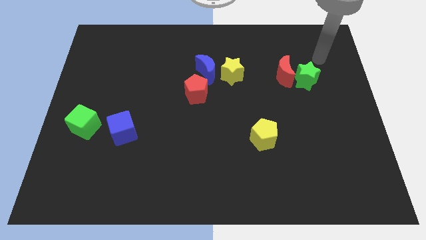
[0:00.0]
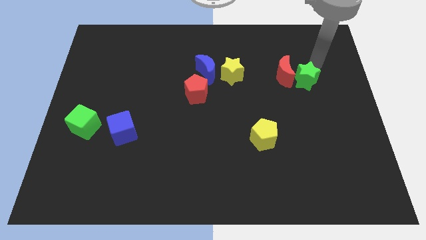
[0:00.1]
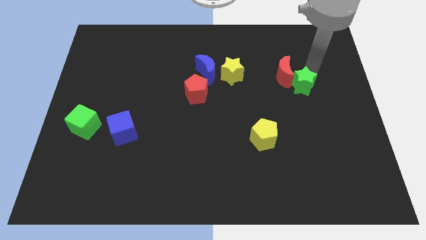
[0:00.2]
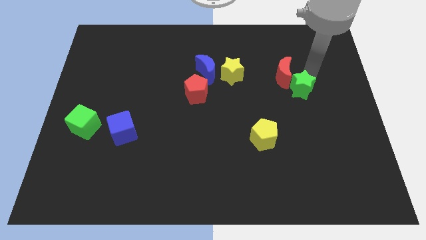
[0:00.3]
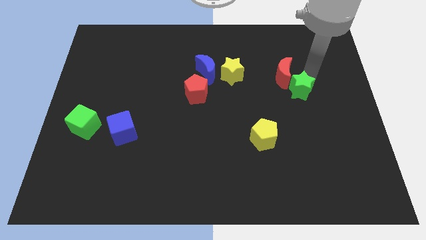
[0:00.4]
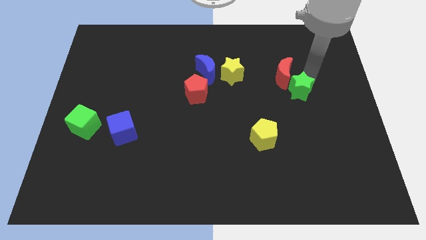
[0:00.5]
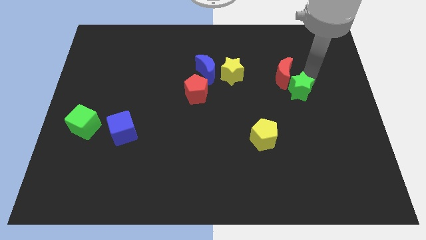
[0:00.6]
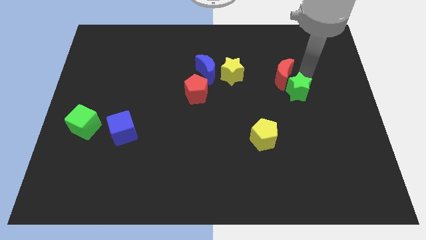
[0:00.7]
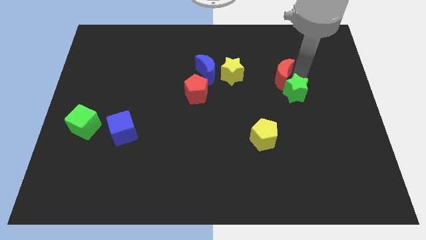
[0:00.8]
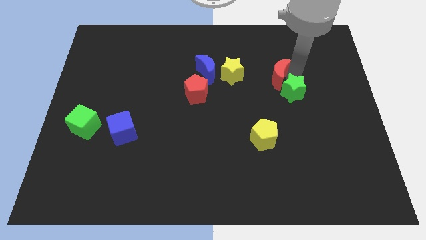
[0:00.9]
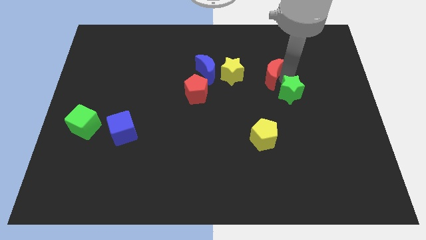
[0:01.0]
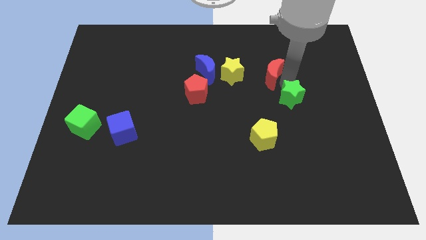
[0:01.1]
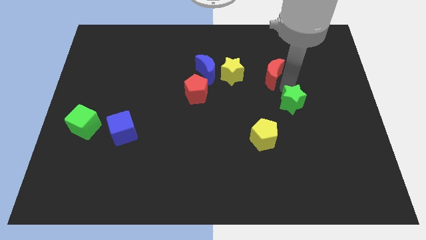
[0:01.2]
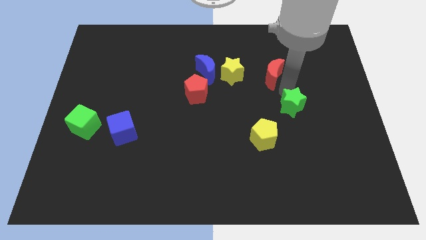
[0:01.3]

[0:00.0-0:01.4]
pull the red moon apart from the green star

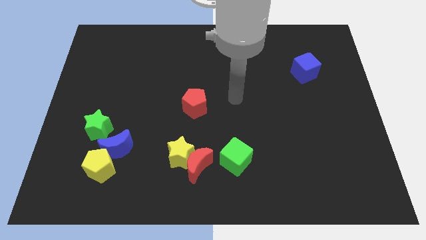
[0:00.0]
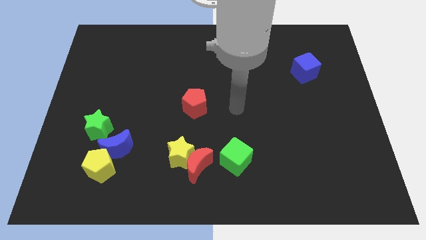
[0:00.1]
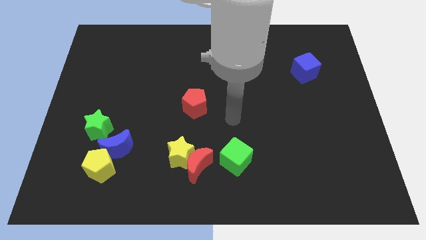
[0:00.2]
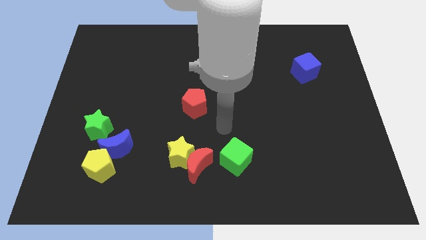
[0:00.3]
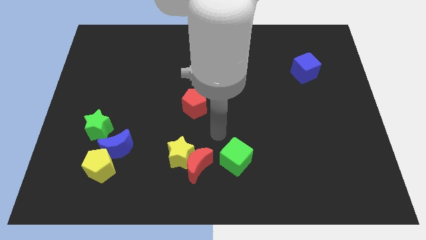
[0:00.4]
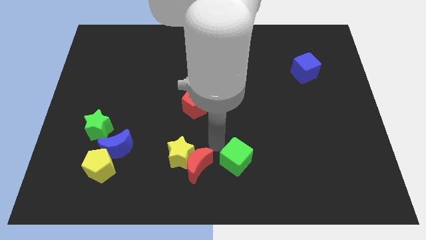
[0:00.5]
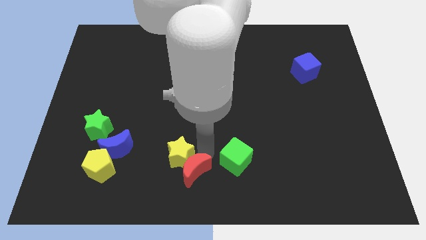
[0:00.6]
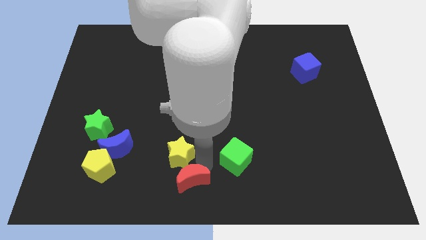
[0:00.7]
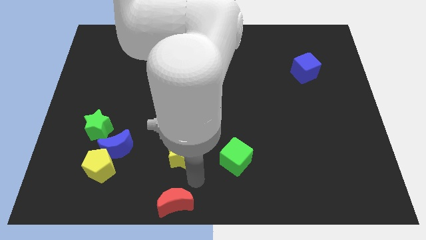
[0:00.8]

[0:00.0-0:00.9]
separate the yellow star from the red moon

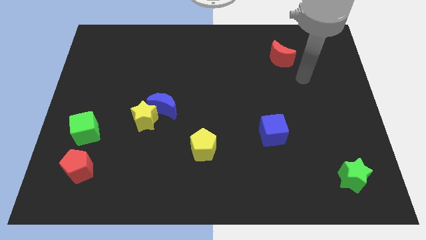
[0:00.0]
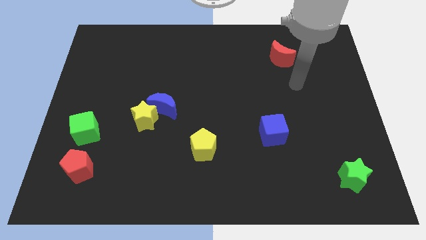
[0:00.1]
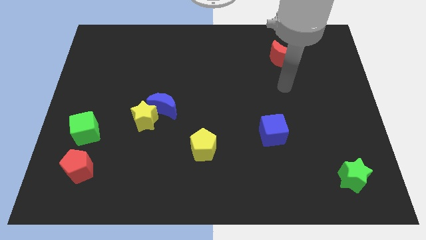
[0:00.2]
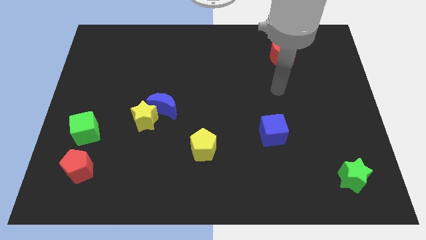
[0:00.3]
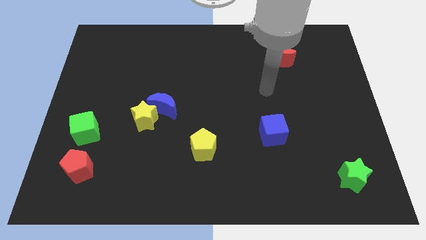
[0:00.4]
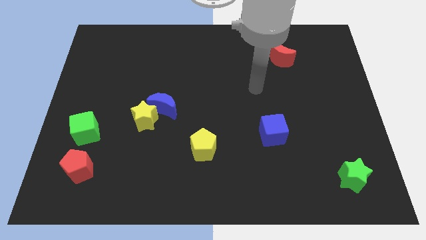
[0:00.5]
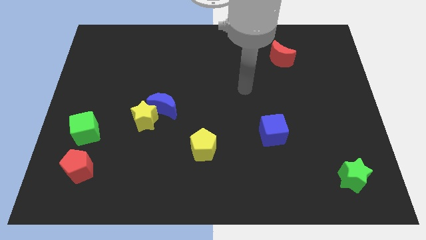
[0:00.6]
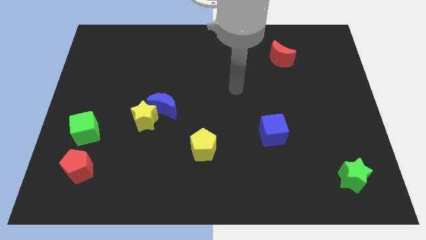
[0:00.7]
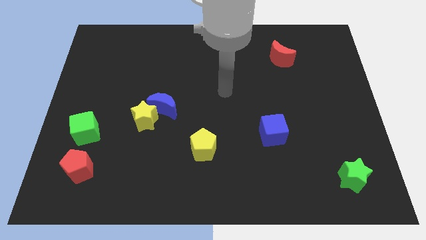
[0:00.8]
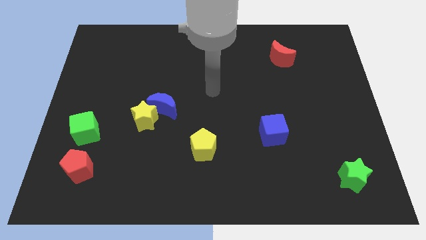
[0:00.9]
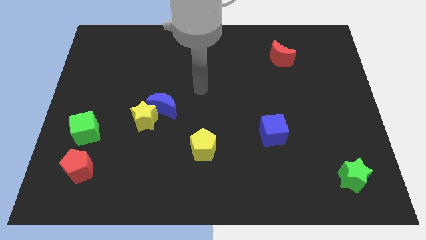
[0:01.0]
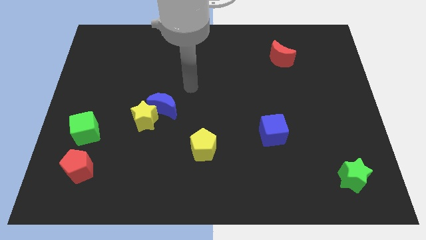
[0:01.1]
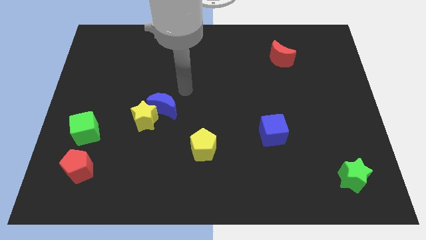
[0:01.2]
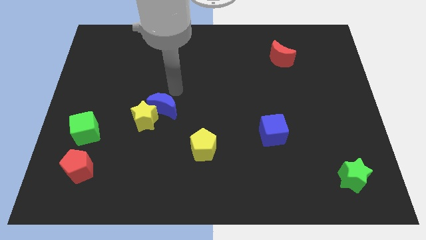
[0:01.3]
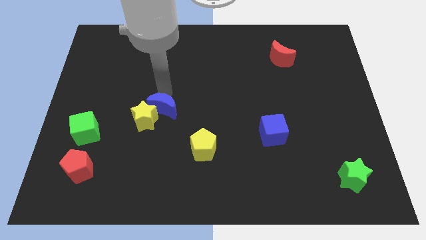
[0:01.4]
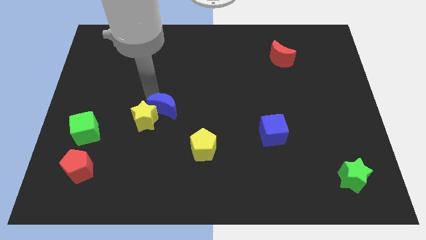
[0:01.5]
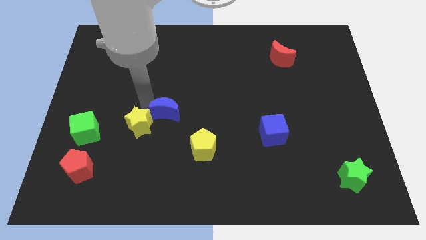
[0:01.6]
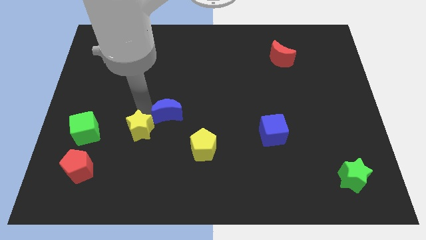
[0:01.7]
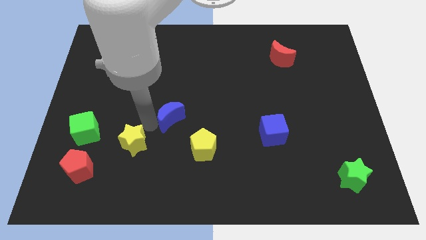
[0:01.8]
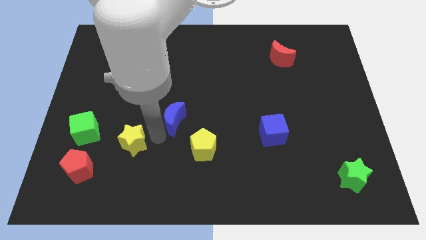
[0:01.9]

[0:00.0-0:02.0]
move the blue moon away from the yellow star

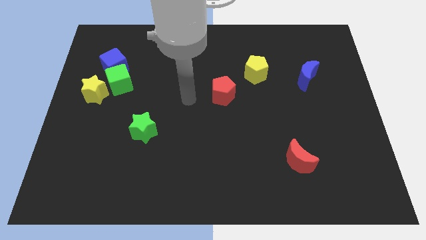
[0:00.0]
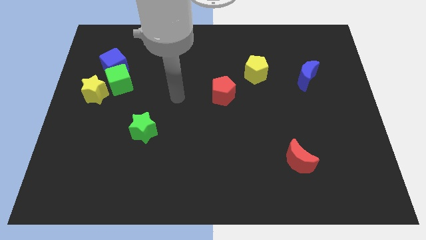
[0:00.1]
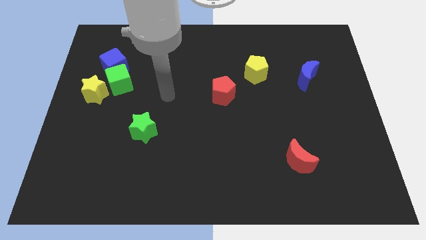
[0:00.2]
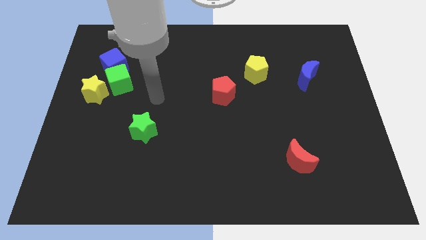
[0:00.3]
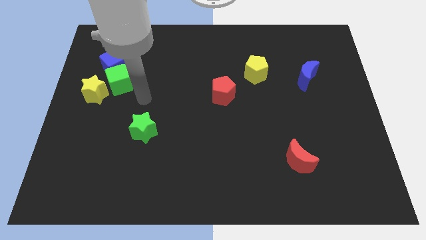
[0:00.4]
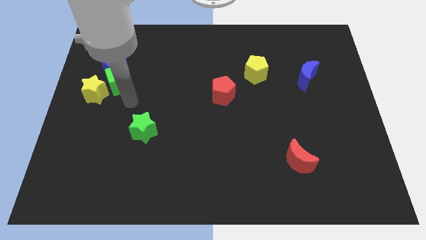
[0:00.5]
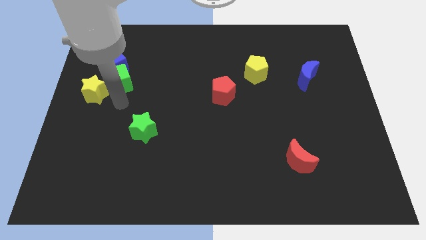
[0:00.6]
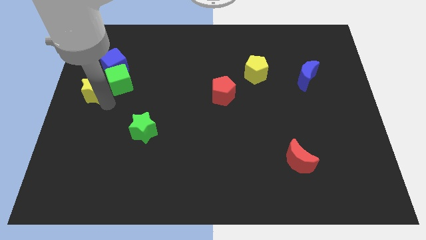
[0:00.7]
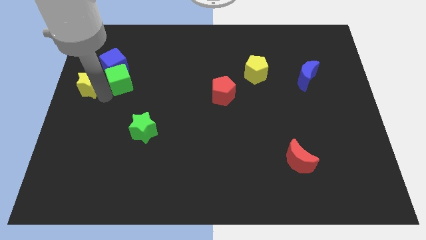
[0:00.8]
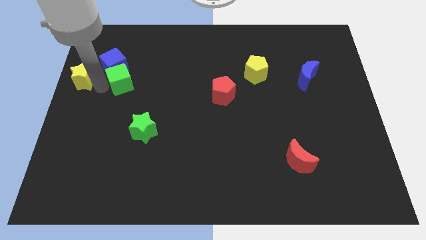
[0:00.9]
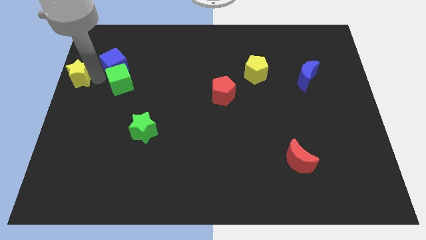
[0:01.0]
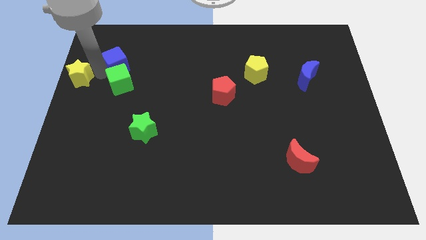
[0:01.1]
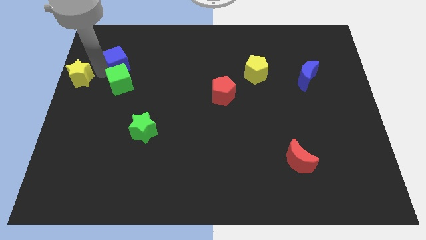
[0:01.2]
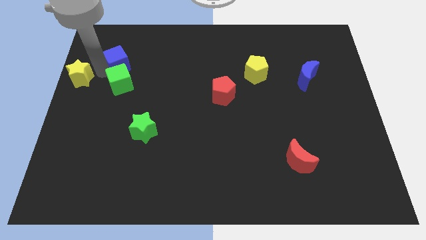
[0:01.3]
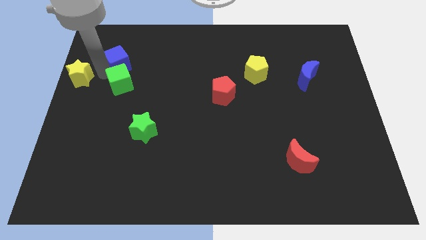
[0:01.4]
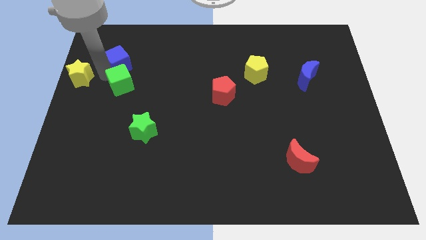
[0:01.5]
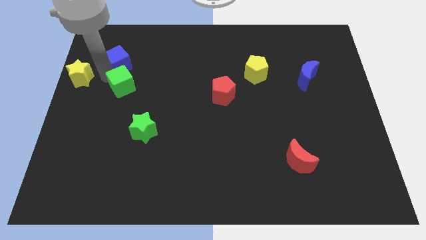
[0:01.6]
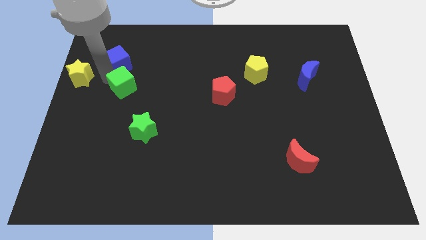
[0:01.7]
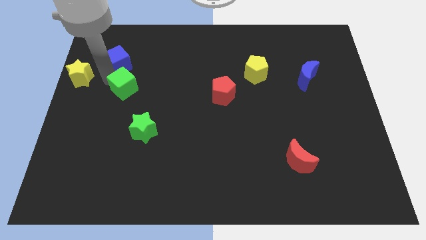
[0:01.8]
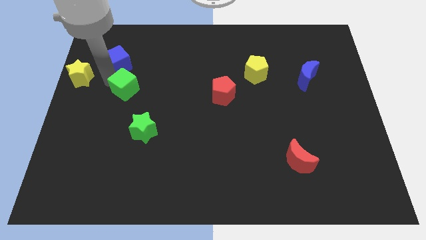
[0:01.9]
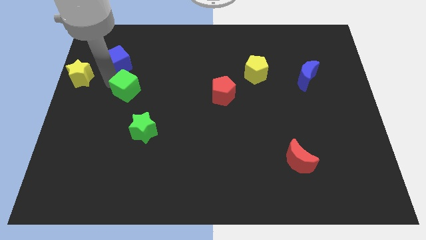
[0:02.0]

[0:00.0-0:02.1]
move the green cube away from the blue cube and yellow star

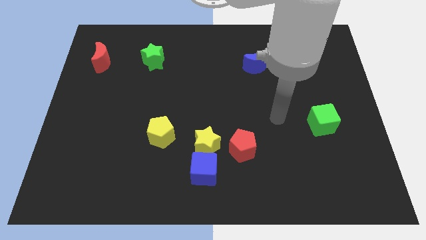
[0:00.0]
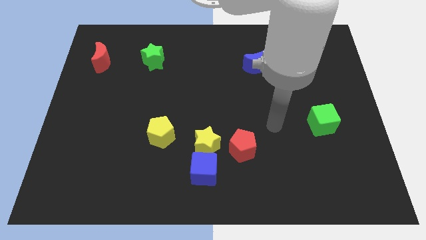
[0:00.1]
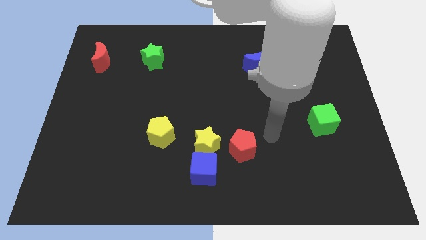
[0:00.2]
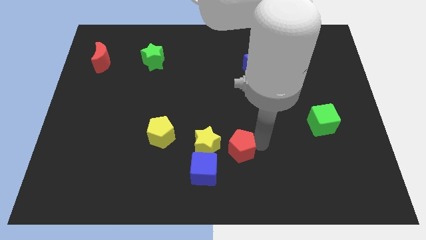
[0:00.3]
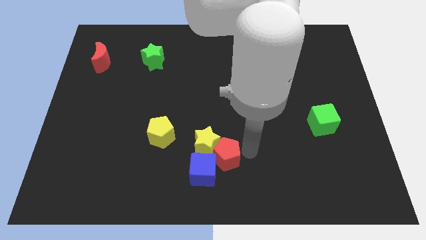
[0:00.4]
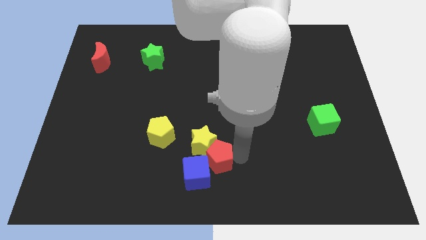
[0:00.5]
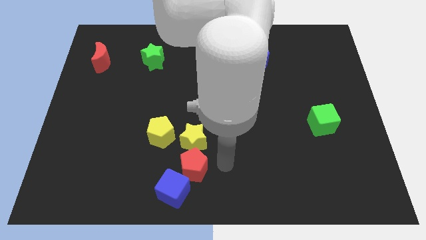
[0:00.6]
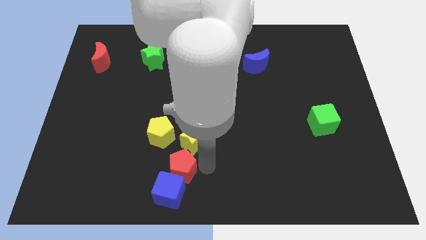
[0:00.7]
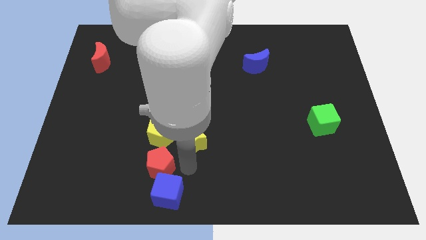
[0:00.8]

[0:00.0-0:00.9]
pull the yellow star apart from the blue cube and red pentagon

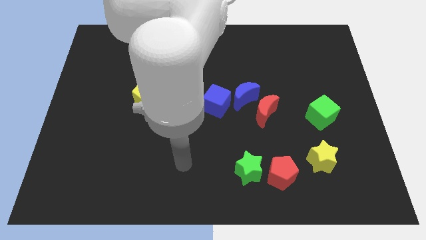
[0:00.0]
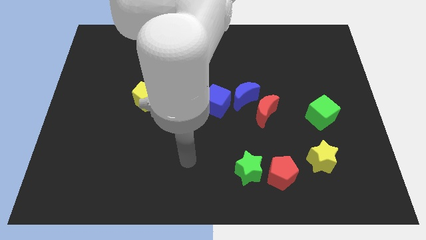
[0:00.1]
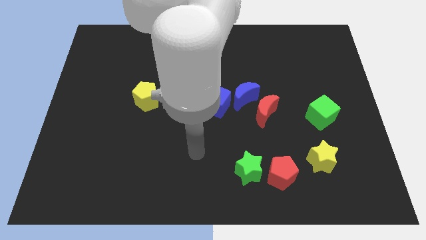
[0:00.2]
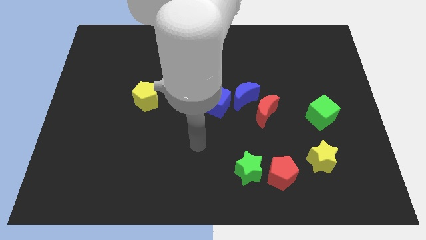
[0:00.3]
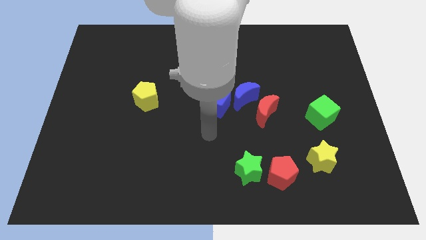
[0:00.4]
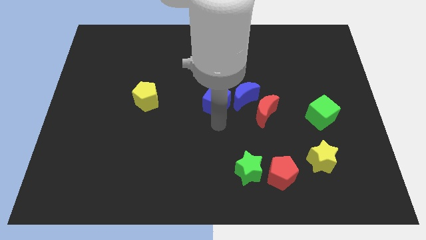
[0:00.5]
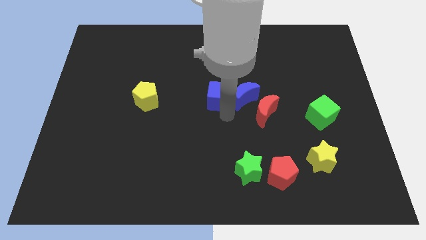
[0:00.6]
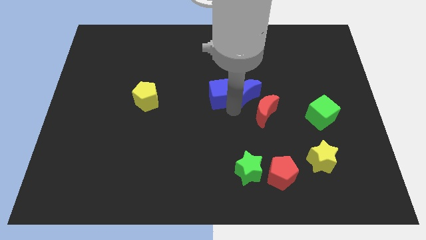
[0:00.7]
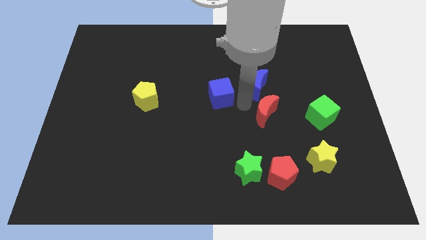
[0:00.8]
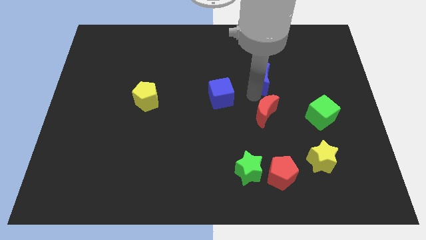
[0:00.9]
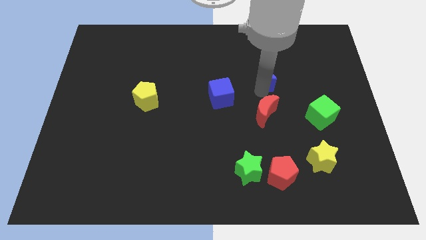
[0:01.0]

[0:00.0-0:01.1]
move the red moon away from the blue moon

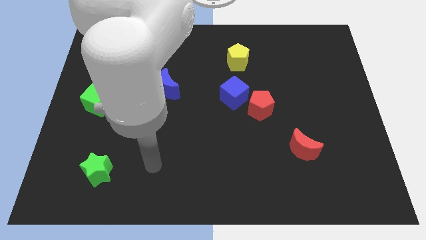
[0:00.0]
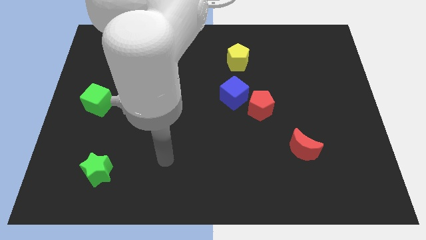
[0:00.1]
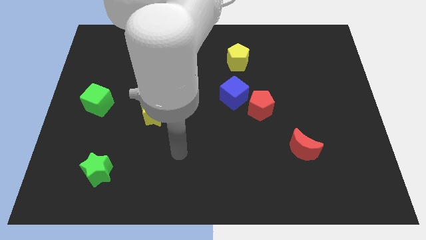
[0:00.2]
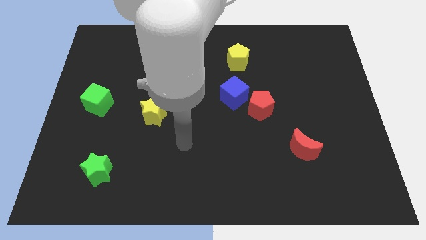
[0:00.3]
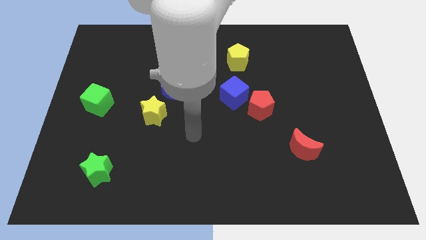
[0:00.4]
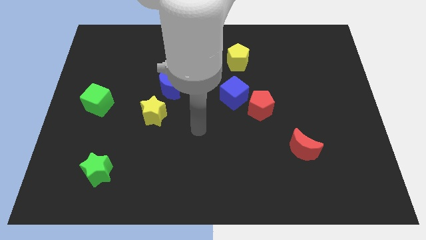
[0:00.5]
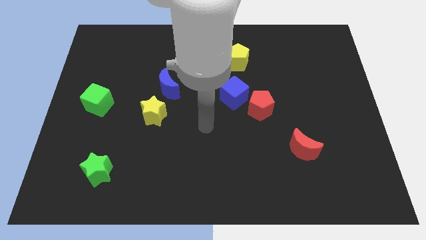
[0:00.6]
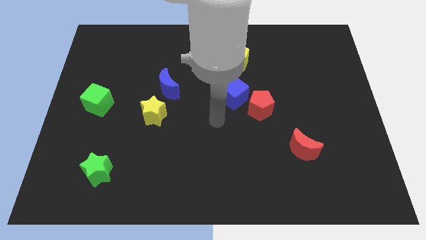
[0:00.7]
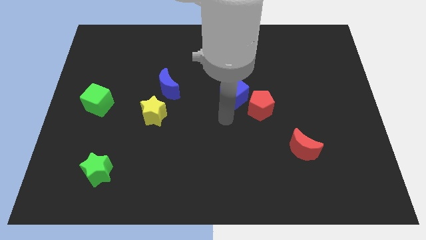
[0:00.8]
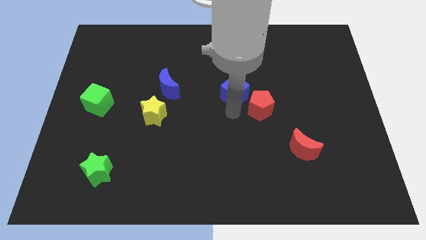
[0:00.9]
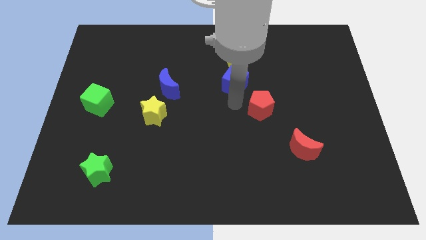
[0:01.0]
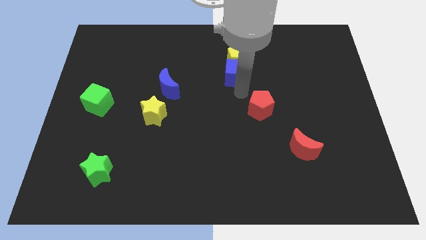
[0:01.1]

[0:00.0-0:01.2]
move the red pentagon away from the blue cube
